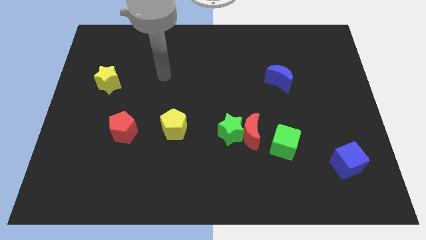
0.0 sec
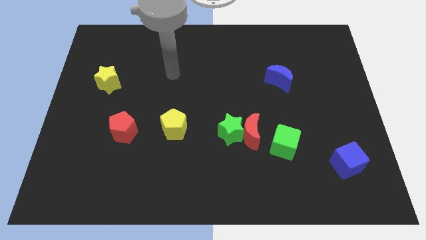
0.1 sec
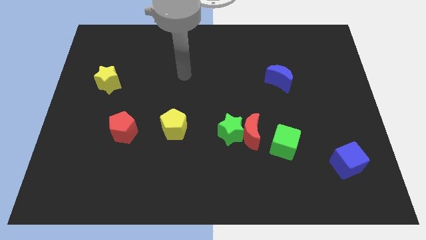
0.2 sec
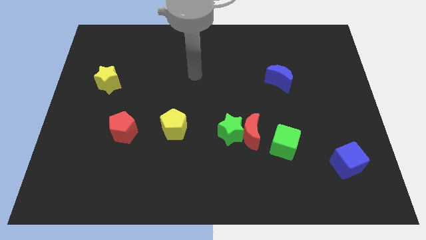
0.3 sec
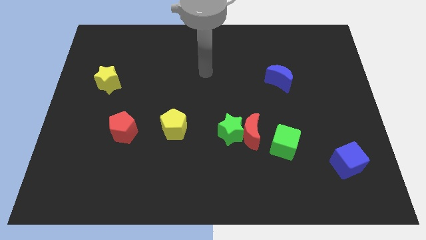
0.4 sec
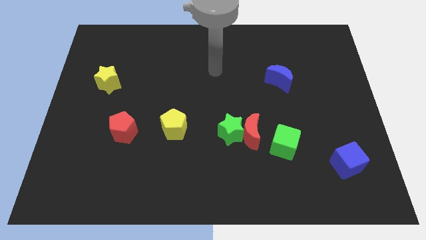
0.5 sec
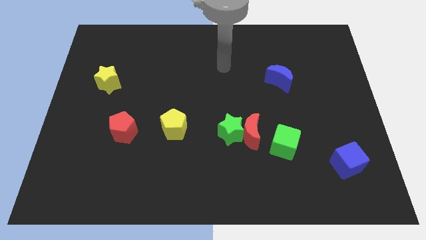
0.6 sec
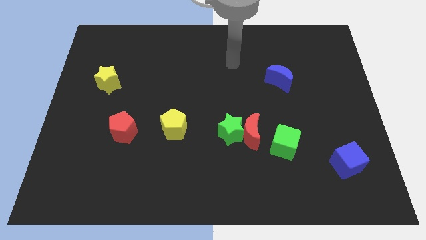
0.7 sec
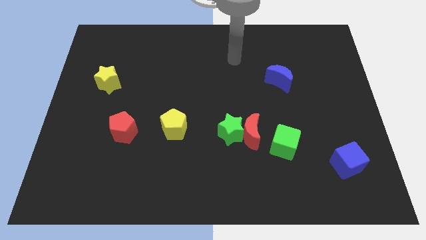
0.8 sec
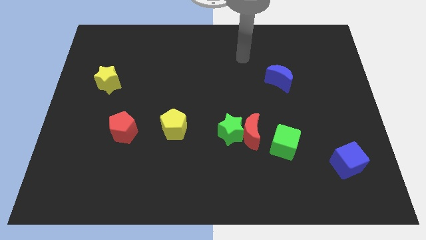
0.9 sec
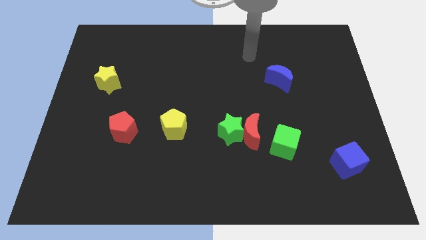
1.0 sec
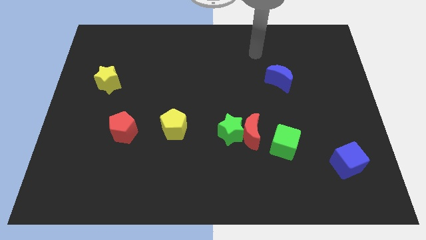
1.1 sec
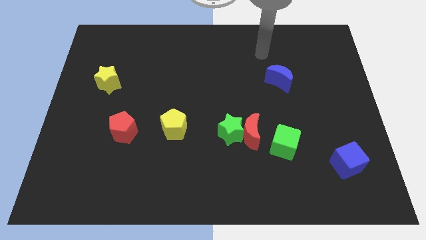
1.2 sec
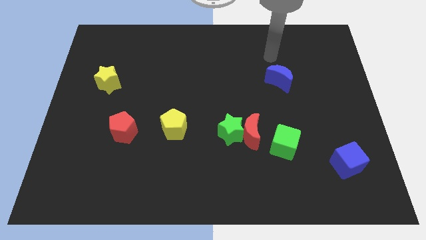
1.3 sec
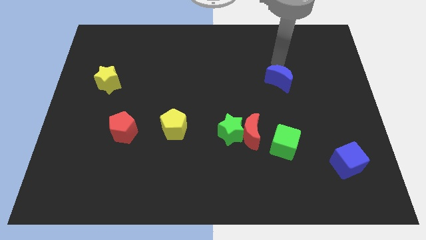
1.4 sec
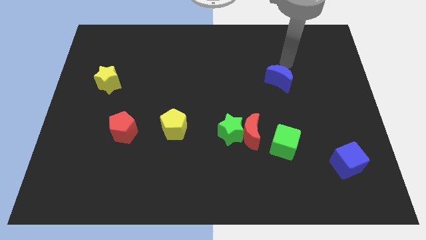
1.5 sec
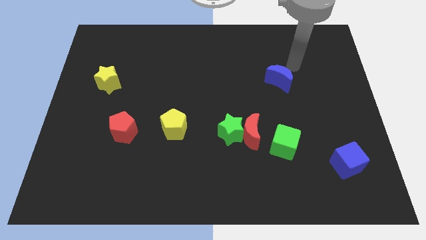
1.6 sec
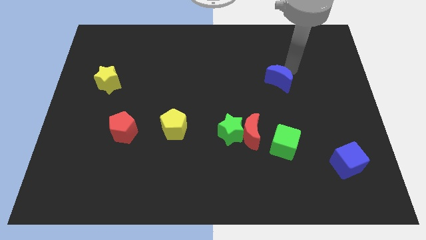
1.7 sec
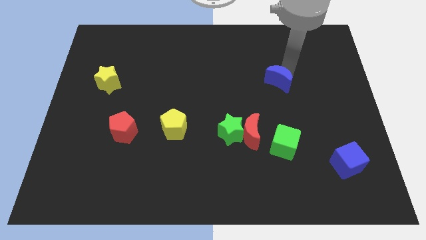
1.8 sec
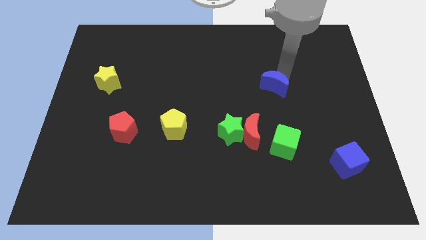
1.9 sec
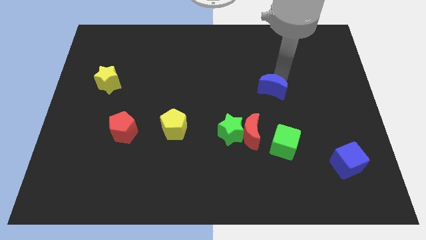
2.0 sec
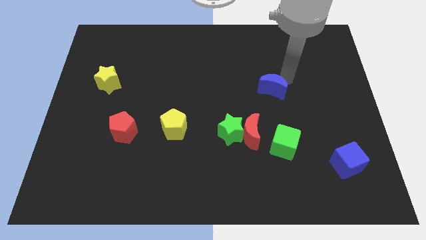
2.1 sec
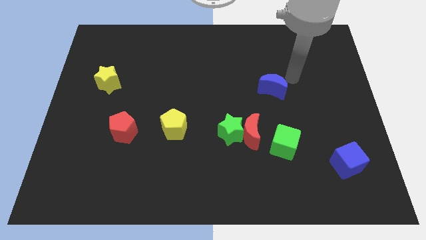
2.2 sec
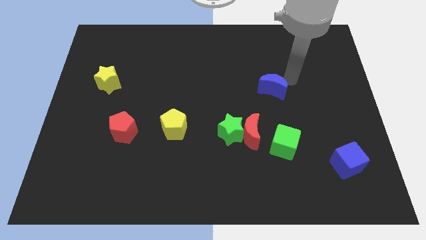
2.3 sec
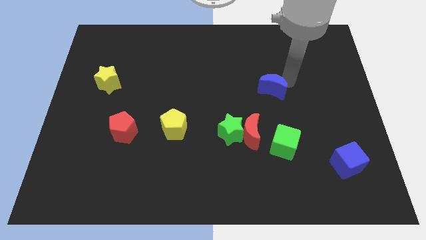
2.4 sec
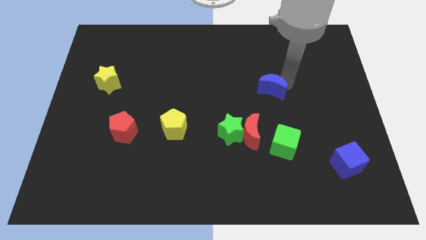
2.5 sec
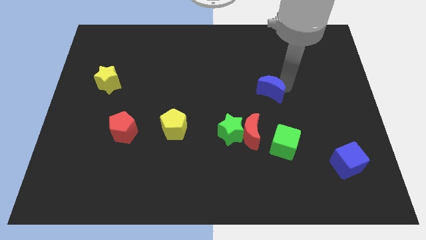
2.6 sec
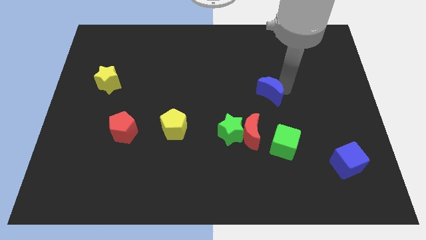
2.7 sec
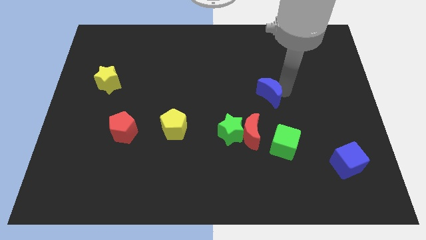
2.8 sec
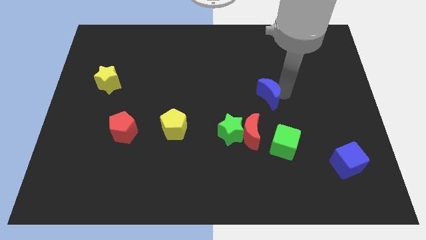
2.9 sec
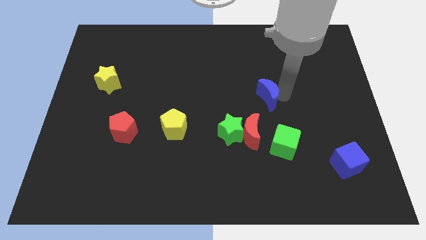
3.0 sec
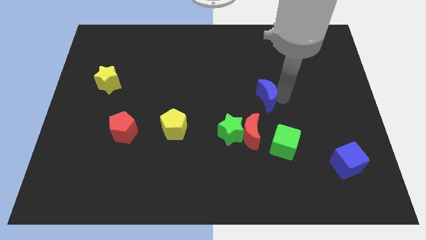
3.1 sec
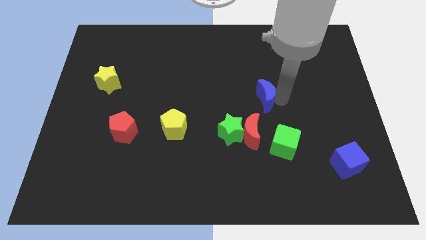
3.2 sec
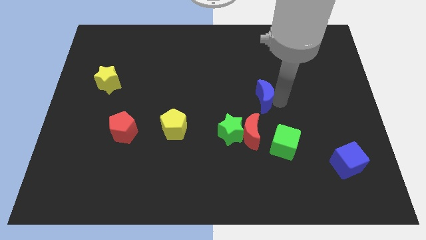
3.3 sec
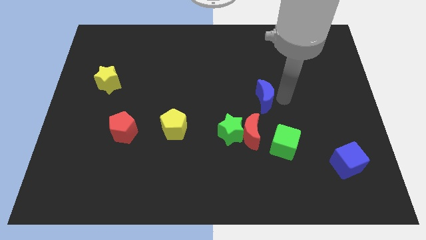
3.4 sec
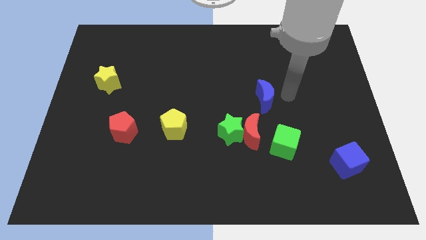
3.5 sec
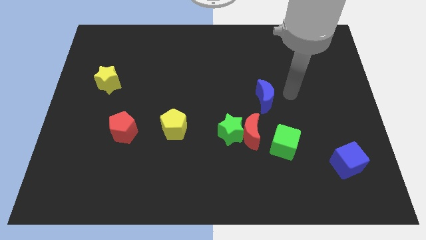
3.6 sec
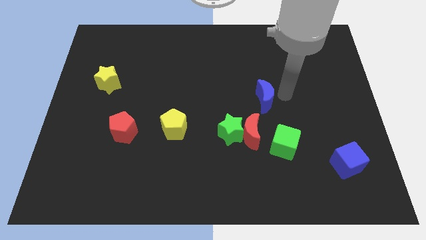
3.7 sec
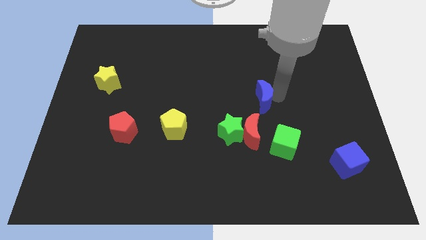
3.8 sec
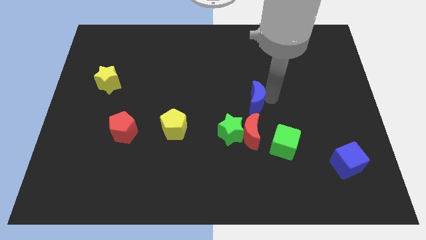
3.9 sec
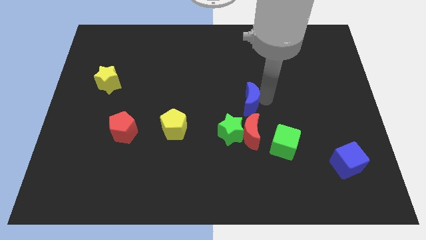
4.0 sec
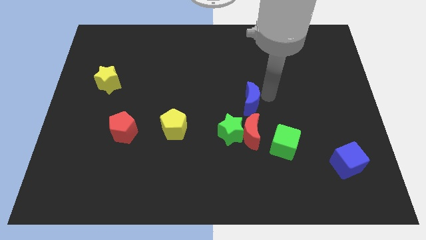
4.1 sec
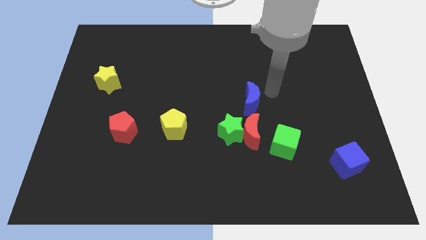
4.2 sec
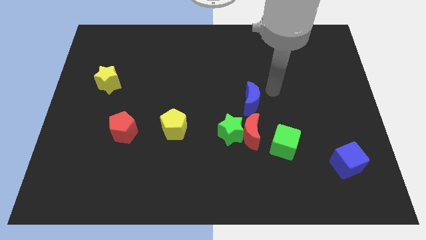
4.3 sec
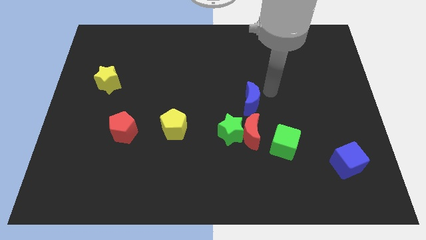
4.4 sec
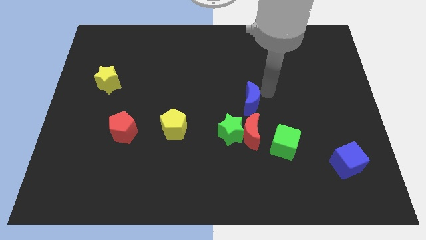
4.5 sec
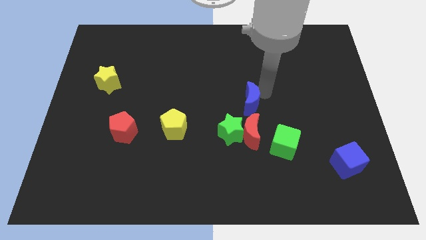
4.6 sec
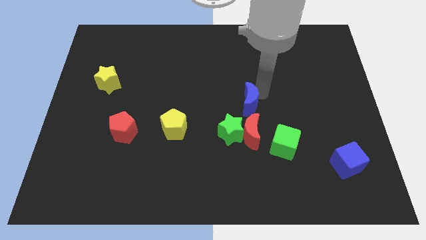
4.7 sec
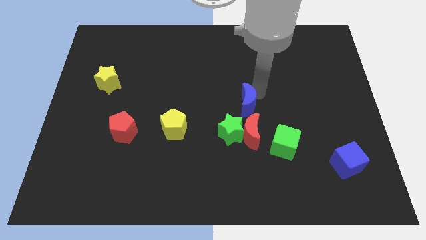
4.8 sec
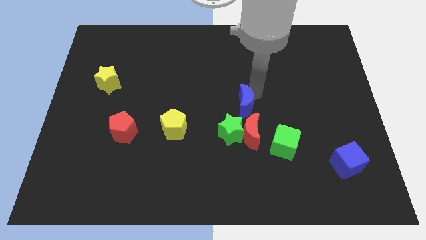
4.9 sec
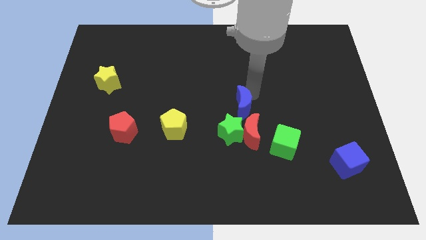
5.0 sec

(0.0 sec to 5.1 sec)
push the blue moon diagonally up and to the left of the red moon

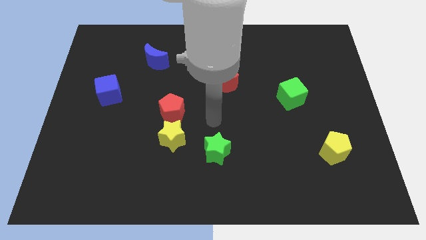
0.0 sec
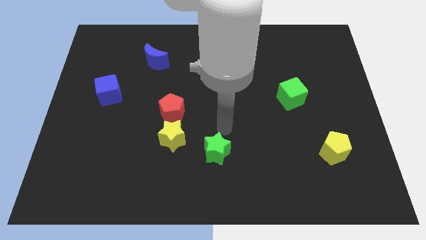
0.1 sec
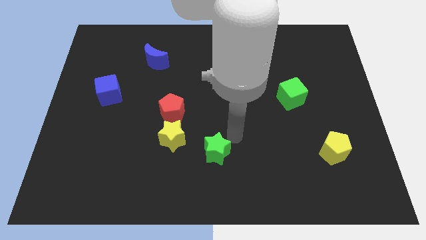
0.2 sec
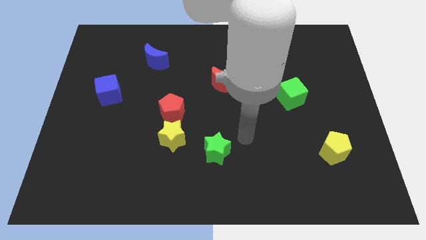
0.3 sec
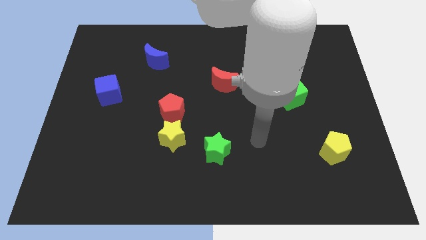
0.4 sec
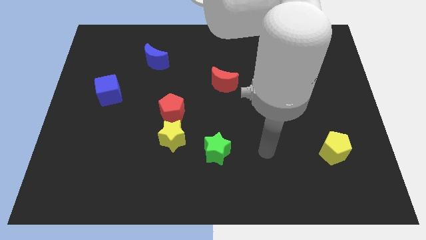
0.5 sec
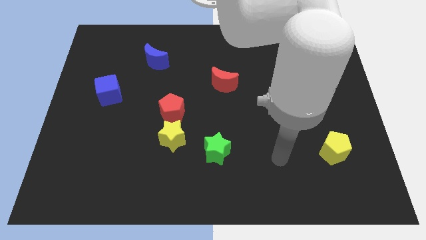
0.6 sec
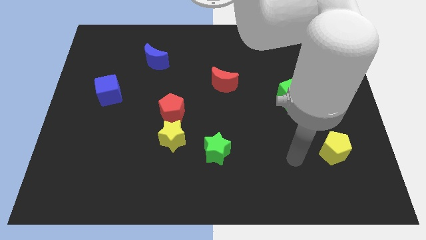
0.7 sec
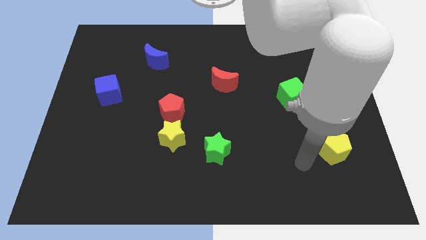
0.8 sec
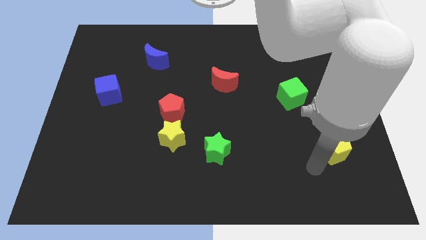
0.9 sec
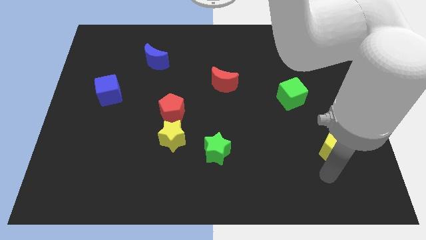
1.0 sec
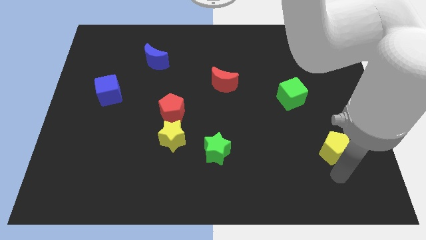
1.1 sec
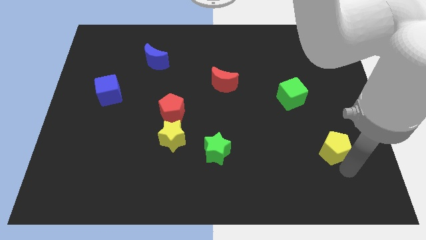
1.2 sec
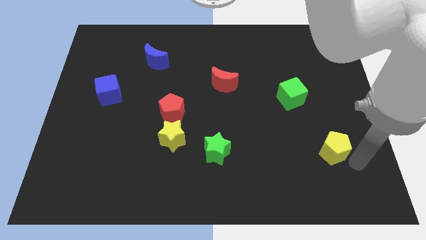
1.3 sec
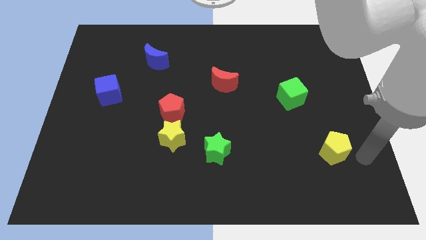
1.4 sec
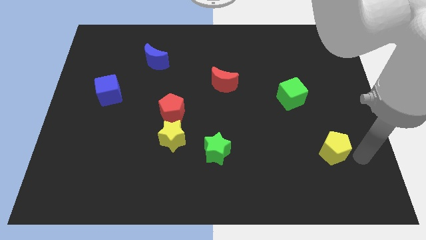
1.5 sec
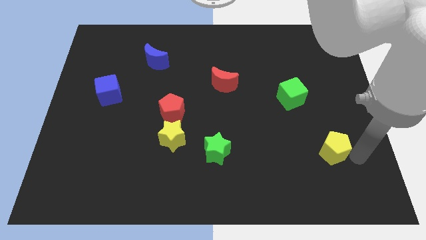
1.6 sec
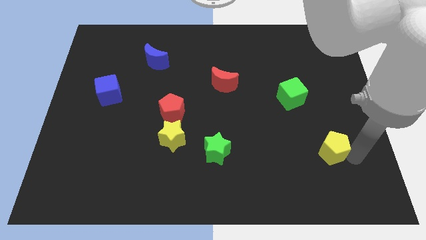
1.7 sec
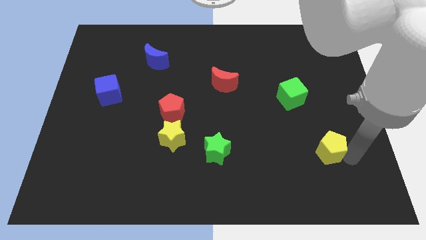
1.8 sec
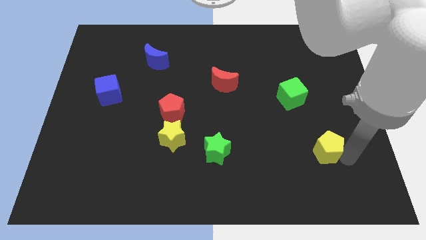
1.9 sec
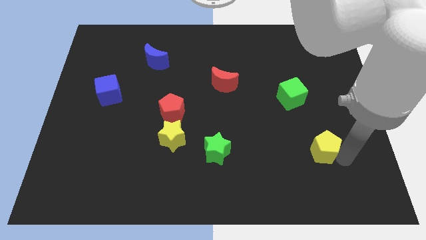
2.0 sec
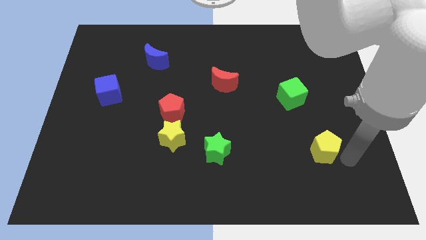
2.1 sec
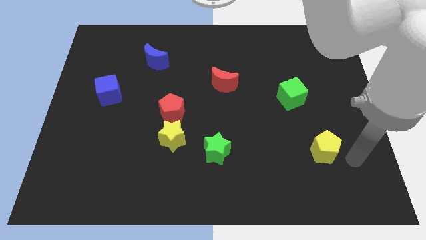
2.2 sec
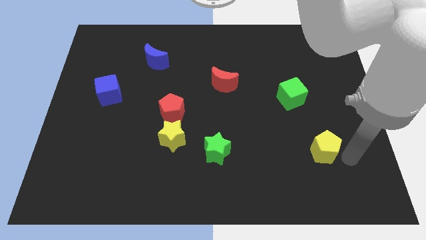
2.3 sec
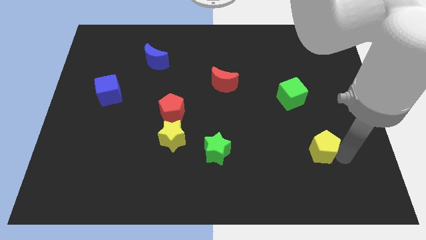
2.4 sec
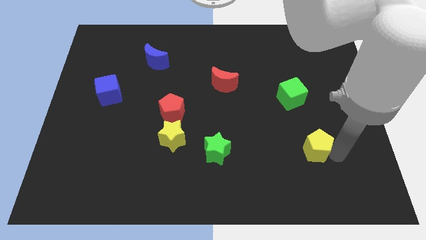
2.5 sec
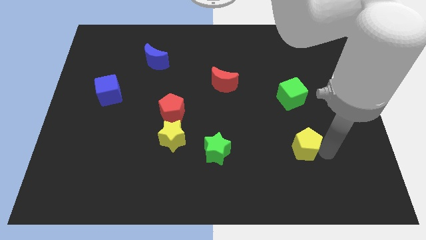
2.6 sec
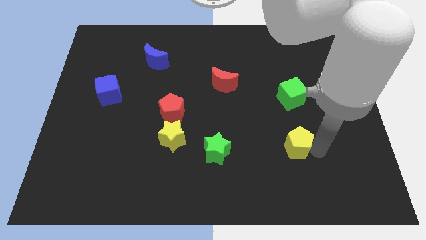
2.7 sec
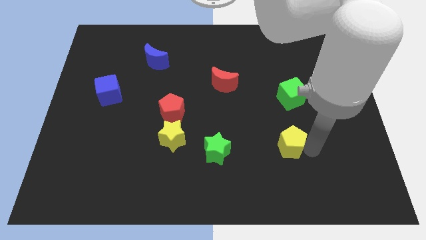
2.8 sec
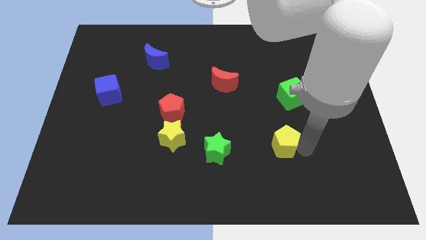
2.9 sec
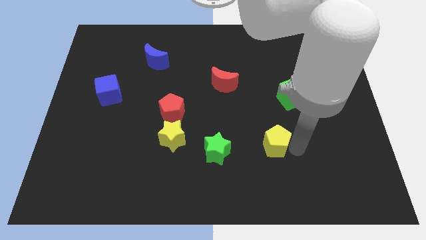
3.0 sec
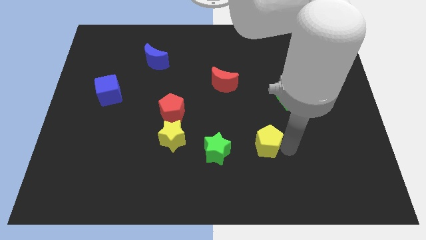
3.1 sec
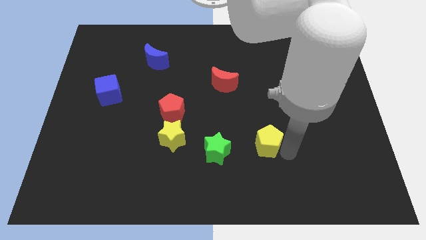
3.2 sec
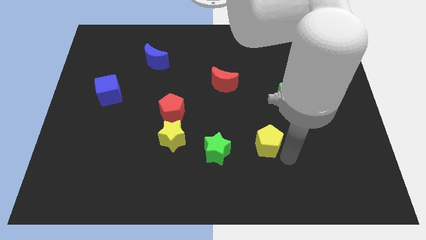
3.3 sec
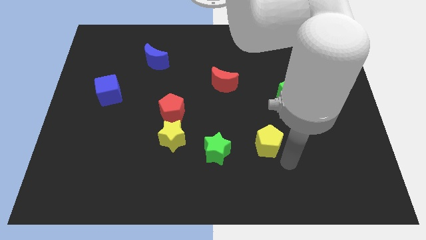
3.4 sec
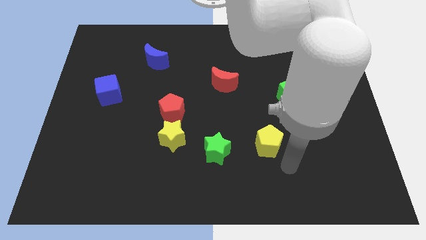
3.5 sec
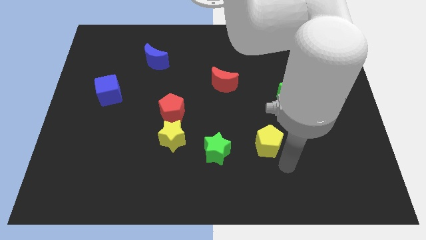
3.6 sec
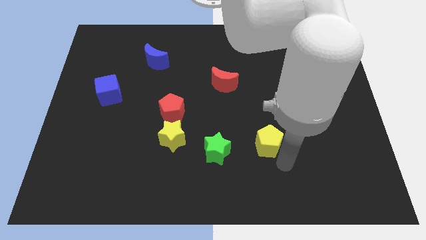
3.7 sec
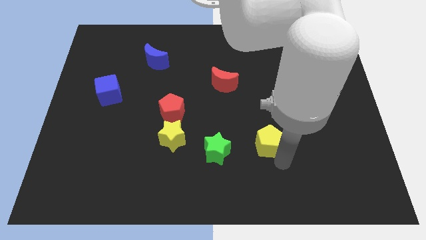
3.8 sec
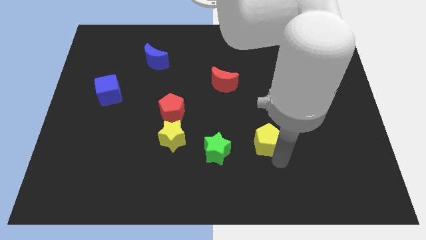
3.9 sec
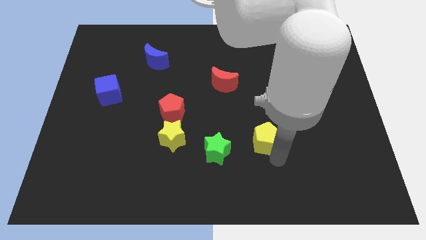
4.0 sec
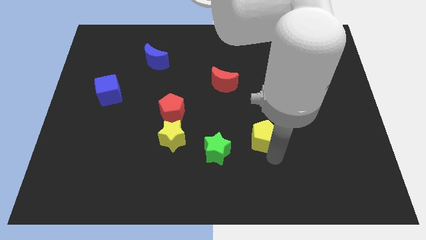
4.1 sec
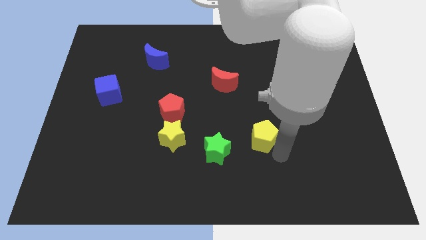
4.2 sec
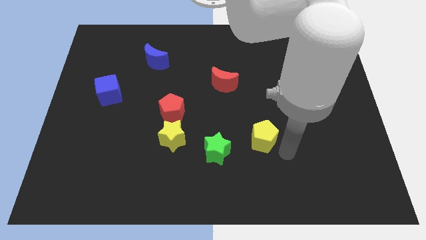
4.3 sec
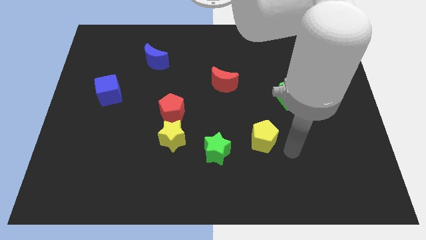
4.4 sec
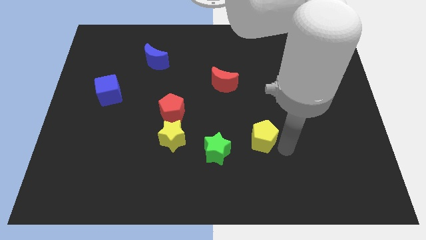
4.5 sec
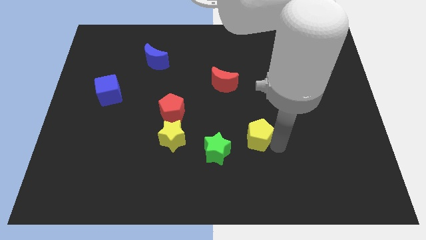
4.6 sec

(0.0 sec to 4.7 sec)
move the yellow pentagon to the top right side of the green star
